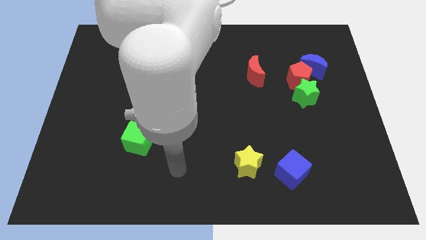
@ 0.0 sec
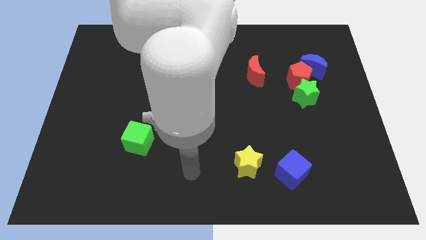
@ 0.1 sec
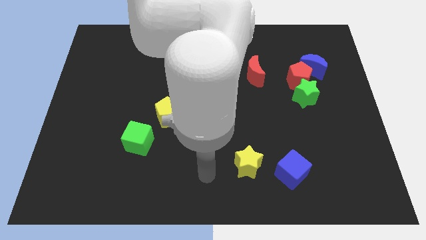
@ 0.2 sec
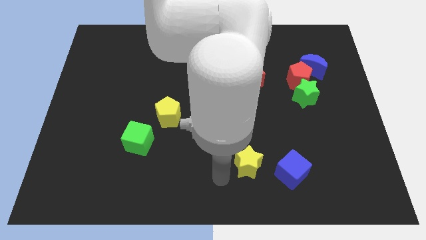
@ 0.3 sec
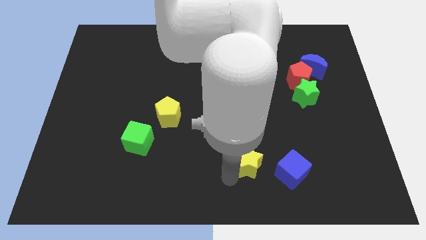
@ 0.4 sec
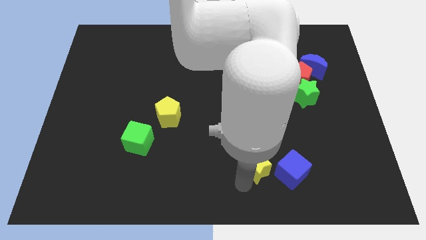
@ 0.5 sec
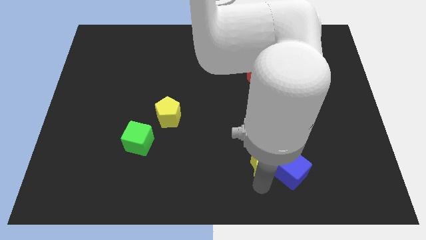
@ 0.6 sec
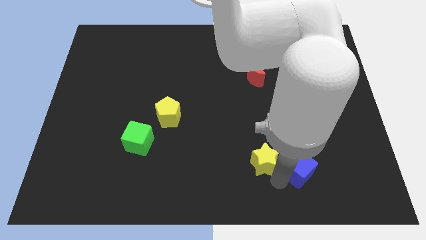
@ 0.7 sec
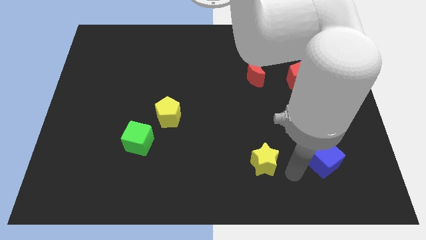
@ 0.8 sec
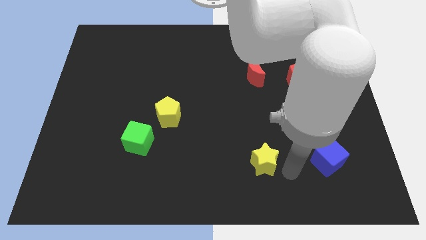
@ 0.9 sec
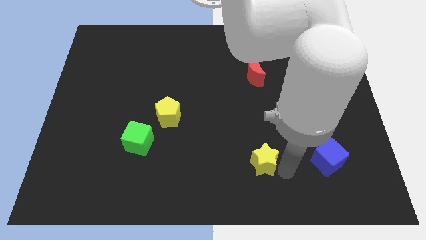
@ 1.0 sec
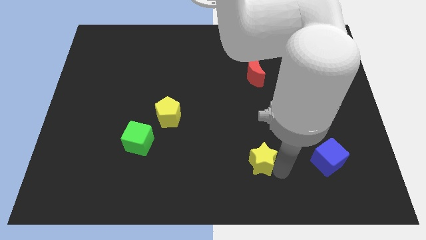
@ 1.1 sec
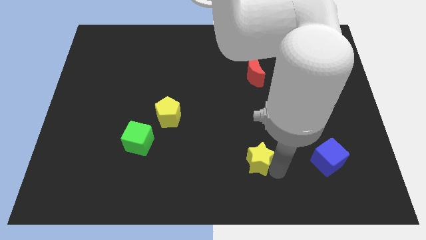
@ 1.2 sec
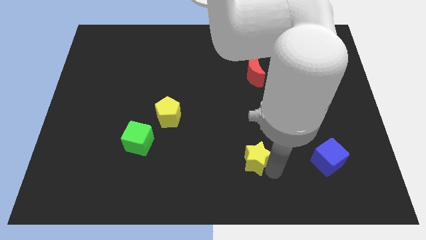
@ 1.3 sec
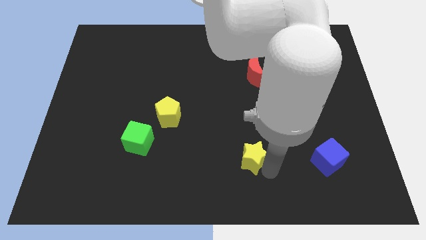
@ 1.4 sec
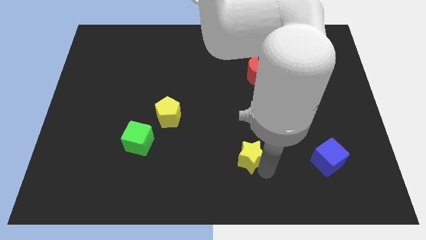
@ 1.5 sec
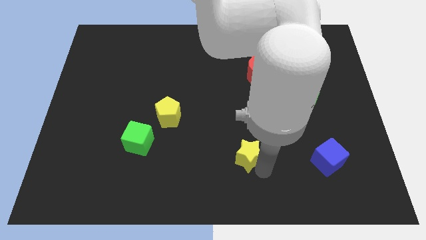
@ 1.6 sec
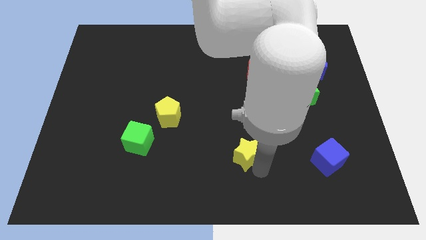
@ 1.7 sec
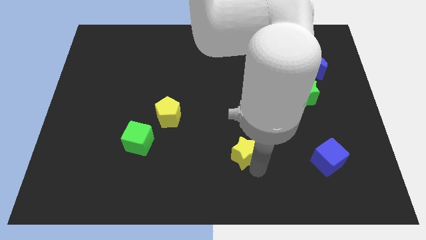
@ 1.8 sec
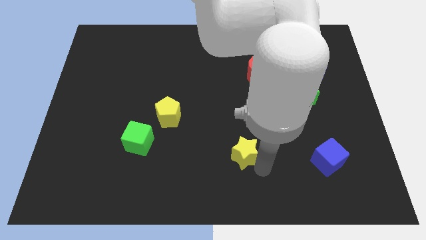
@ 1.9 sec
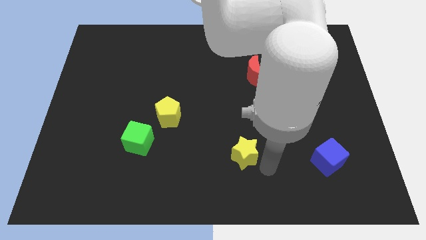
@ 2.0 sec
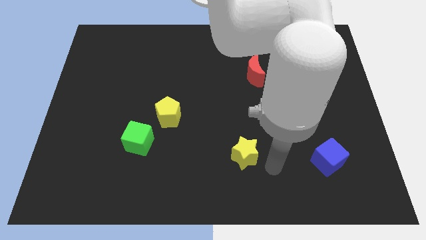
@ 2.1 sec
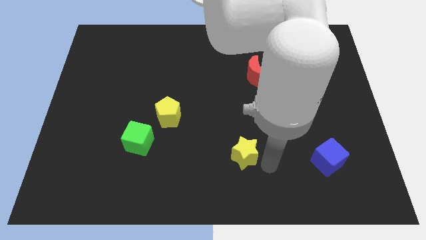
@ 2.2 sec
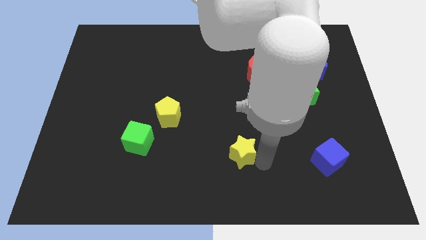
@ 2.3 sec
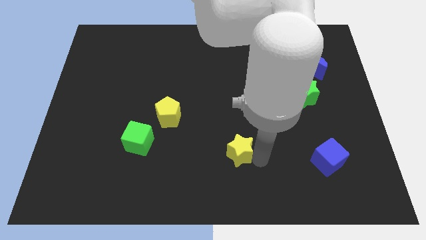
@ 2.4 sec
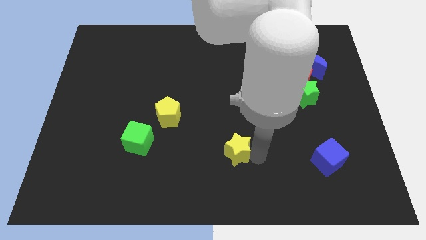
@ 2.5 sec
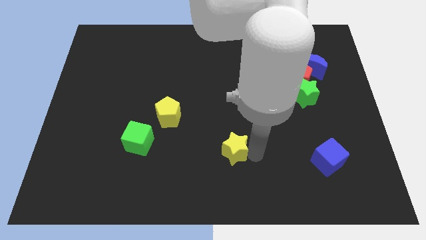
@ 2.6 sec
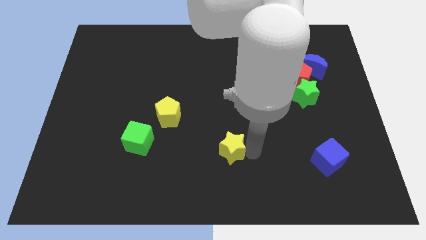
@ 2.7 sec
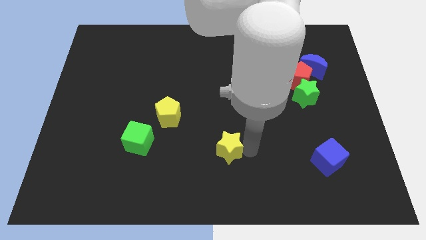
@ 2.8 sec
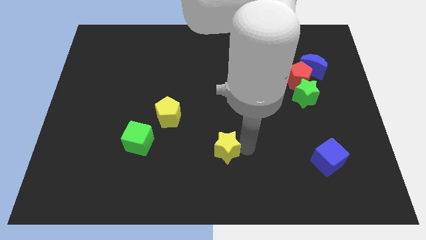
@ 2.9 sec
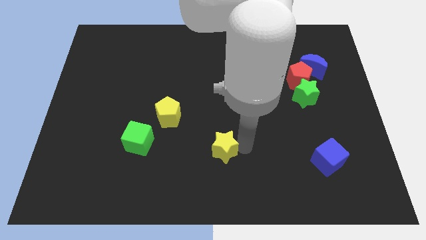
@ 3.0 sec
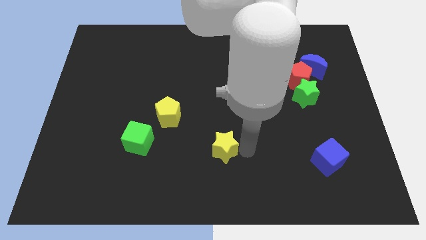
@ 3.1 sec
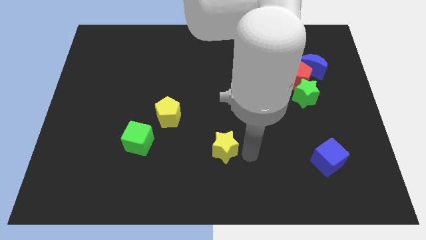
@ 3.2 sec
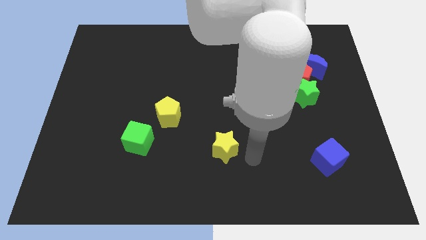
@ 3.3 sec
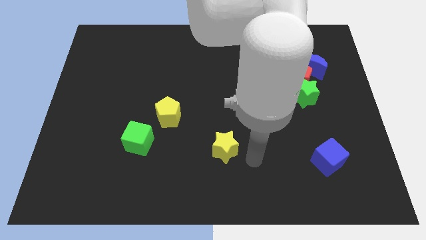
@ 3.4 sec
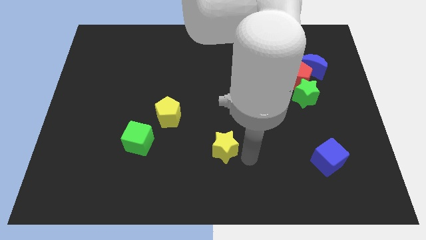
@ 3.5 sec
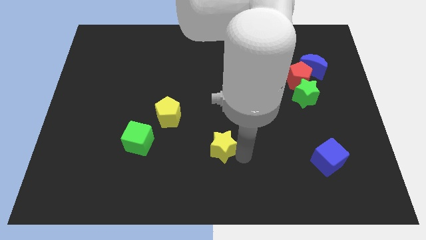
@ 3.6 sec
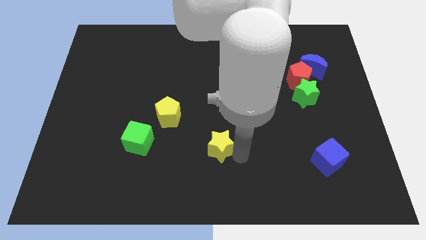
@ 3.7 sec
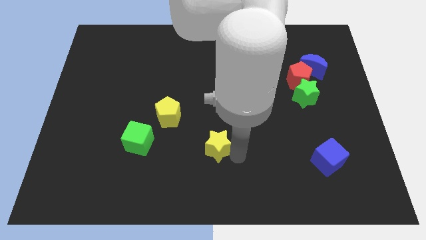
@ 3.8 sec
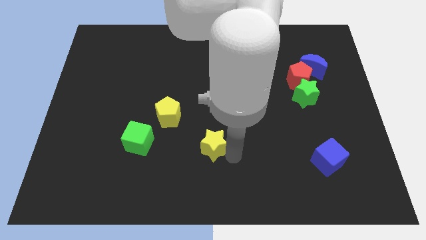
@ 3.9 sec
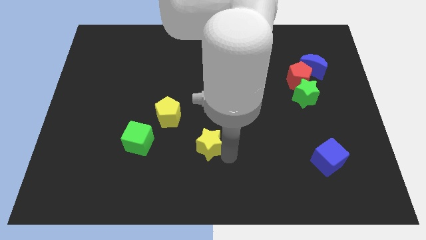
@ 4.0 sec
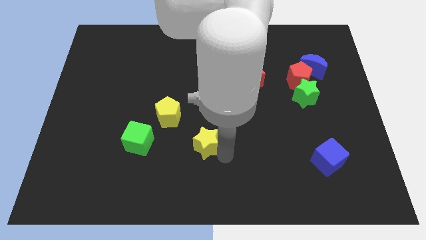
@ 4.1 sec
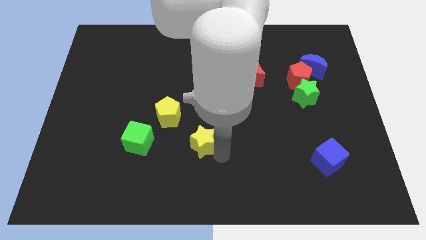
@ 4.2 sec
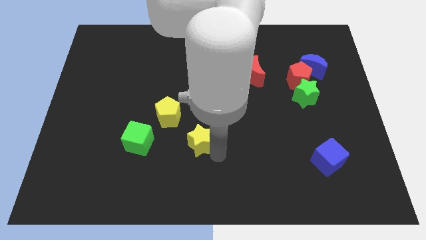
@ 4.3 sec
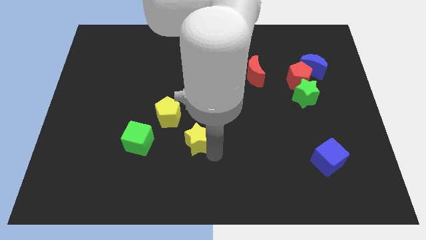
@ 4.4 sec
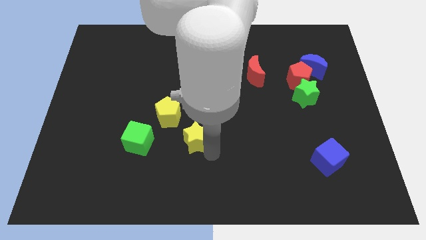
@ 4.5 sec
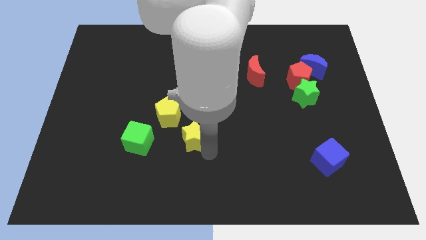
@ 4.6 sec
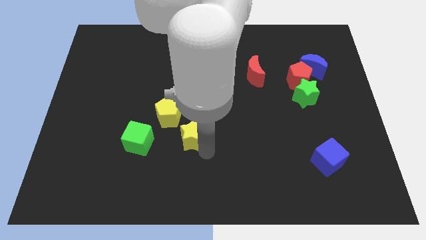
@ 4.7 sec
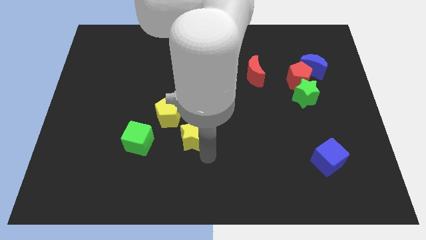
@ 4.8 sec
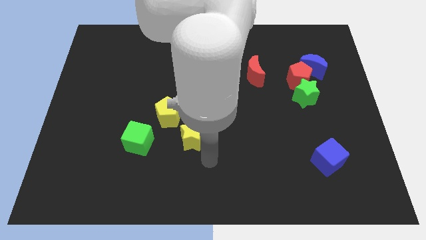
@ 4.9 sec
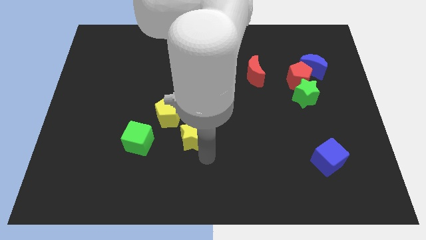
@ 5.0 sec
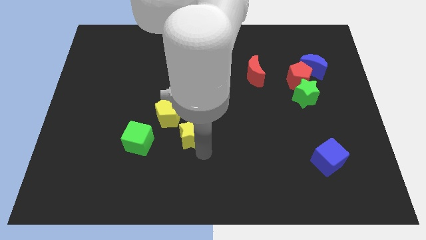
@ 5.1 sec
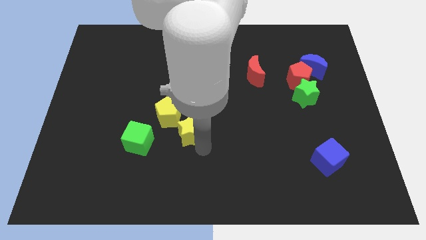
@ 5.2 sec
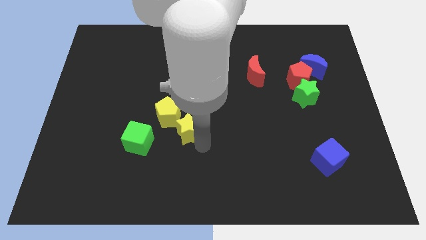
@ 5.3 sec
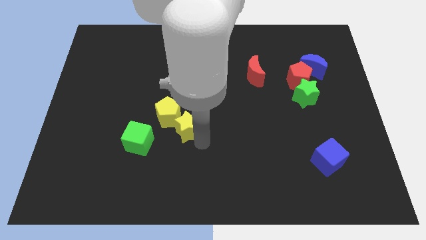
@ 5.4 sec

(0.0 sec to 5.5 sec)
move the yellow star to the yellow pentagon

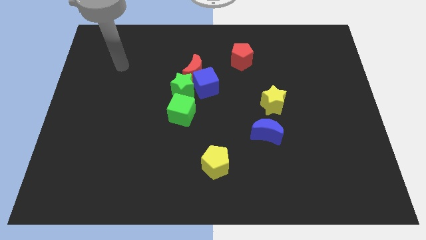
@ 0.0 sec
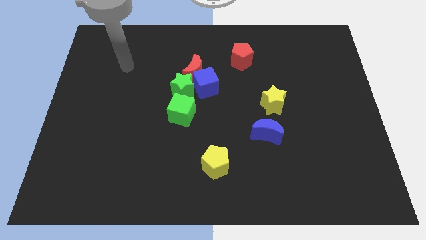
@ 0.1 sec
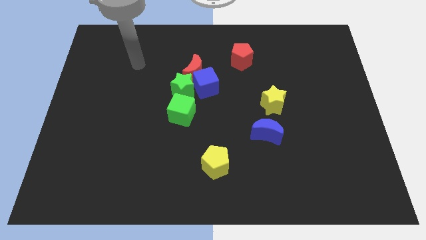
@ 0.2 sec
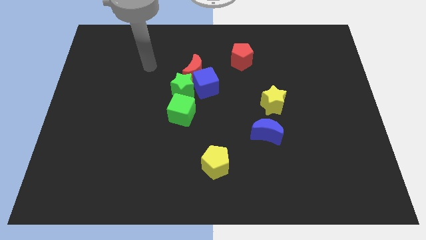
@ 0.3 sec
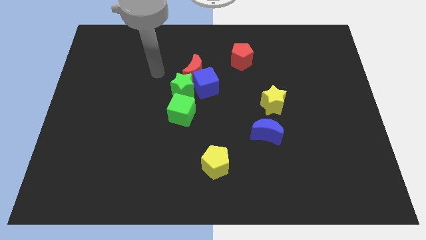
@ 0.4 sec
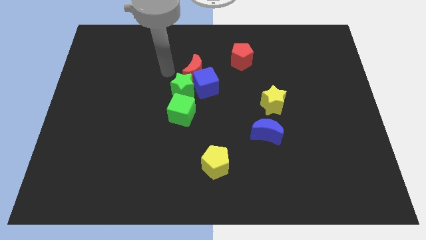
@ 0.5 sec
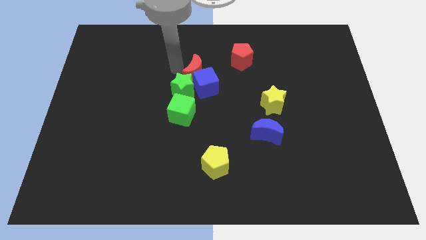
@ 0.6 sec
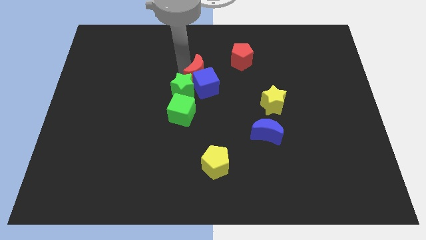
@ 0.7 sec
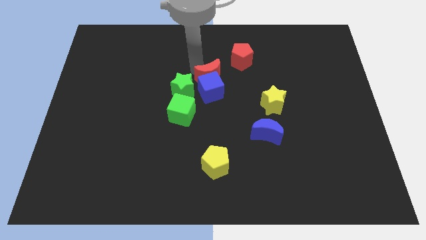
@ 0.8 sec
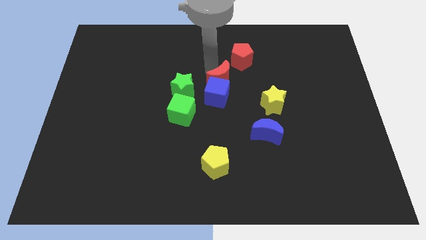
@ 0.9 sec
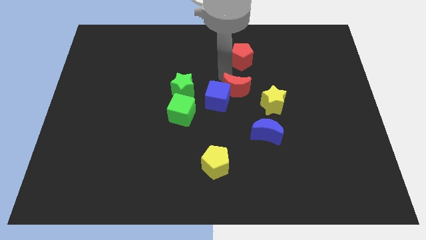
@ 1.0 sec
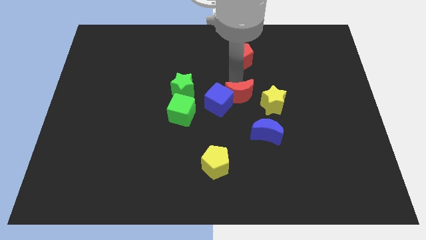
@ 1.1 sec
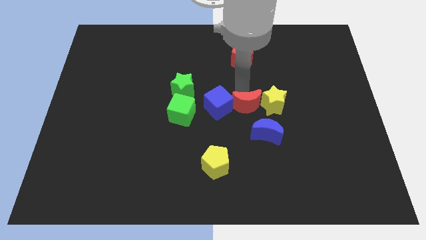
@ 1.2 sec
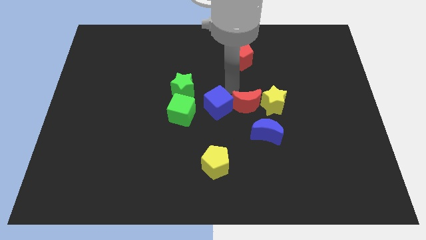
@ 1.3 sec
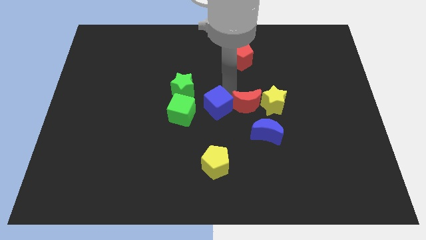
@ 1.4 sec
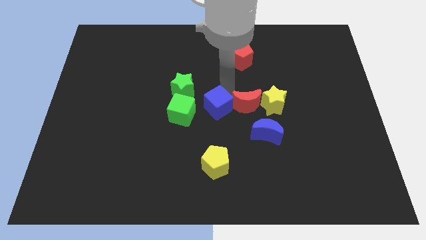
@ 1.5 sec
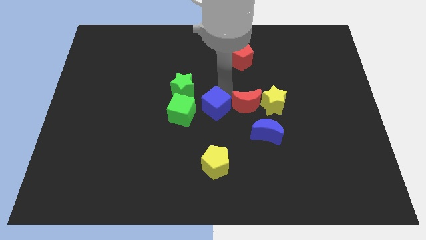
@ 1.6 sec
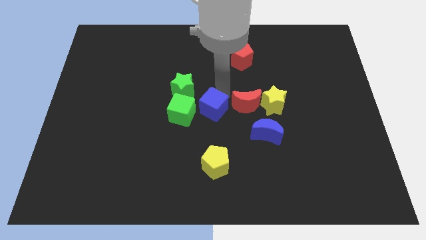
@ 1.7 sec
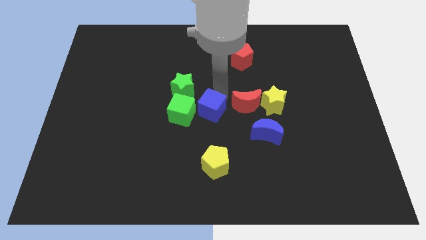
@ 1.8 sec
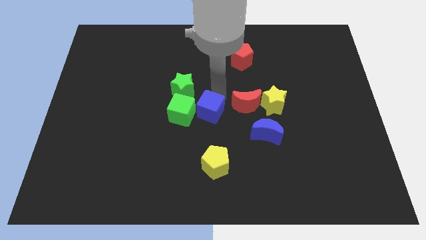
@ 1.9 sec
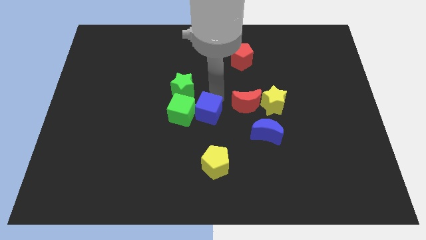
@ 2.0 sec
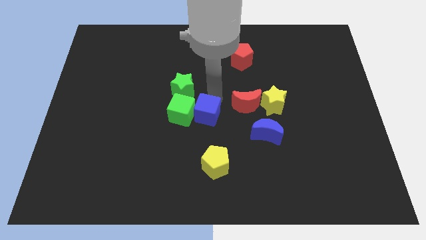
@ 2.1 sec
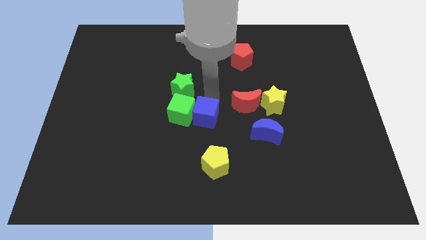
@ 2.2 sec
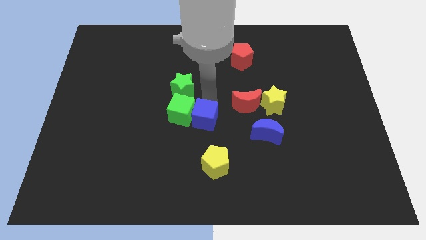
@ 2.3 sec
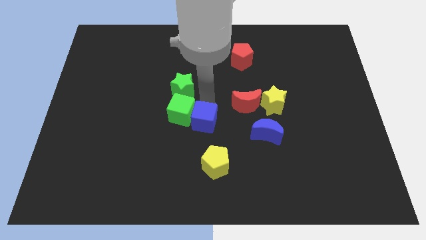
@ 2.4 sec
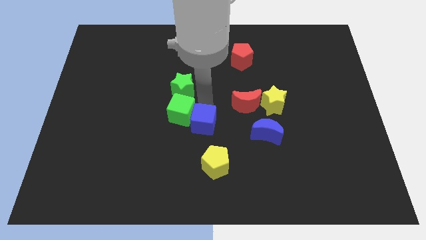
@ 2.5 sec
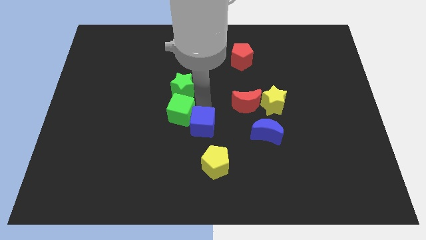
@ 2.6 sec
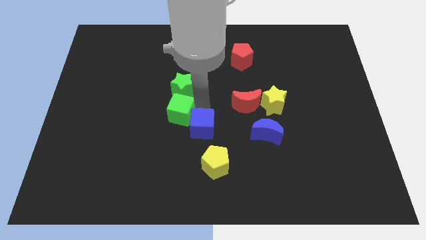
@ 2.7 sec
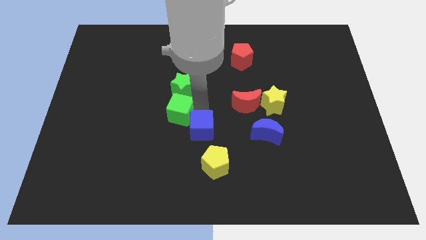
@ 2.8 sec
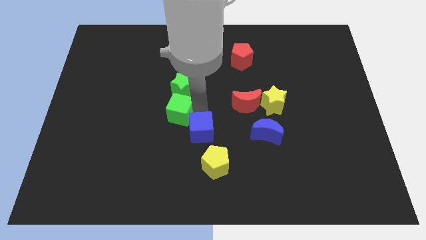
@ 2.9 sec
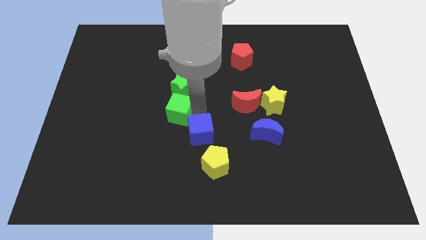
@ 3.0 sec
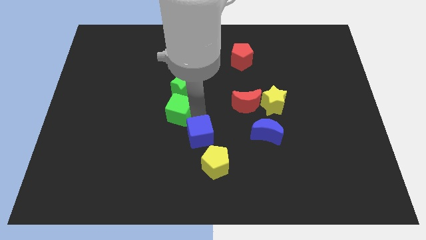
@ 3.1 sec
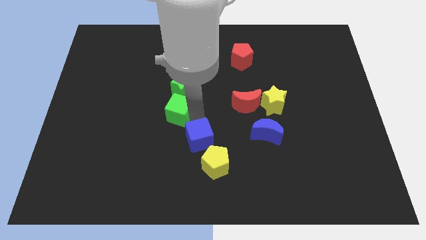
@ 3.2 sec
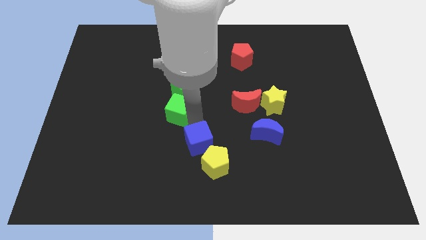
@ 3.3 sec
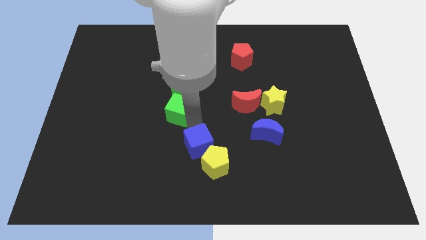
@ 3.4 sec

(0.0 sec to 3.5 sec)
slide the blue cube to the yellow pentagon
